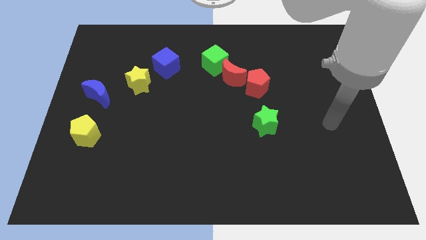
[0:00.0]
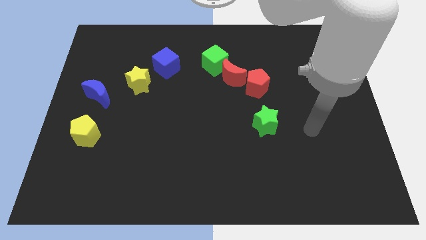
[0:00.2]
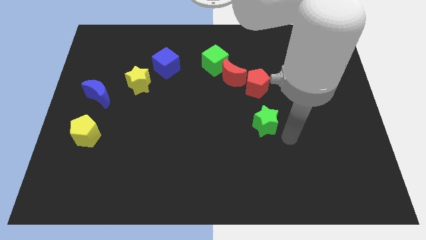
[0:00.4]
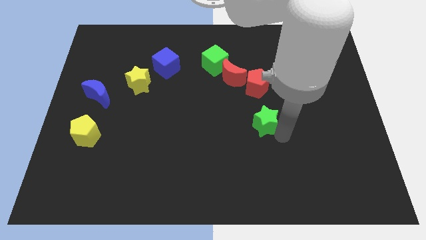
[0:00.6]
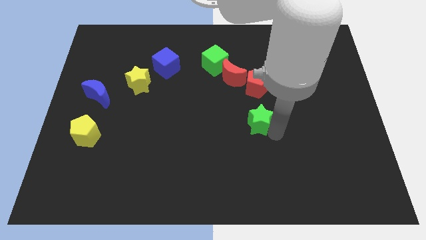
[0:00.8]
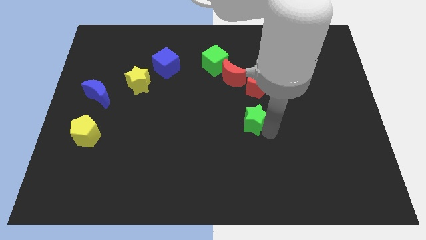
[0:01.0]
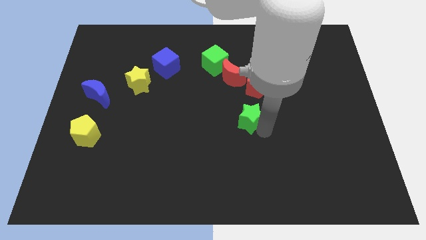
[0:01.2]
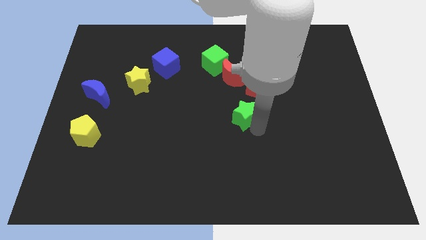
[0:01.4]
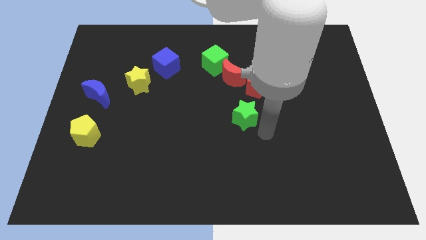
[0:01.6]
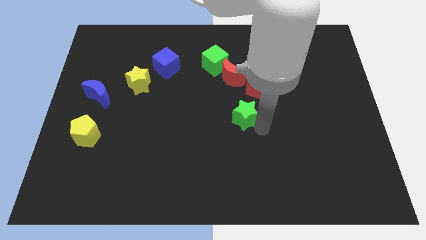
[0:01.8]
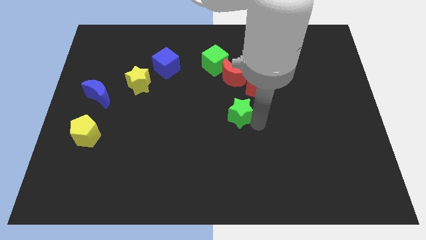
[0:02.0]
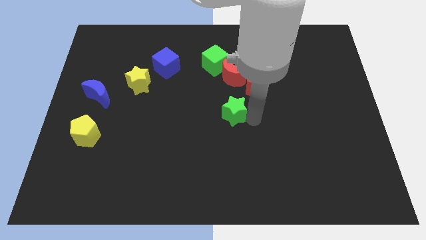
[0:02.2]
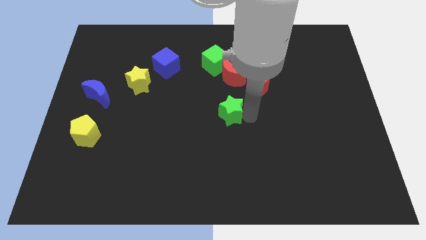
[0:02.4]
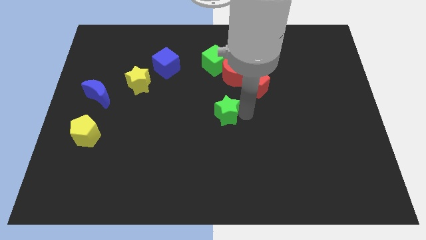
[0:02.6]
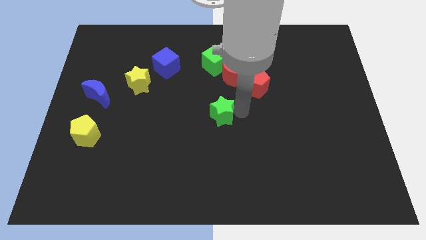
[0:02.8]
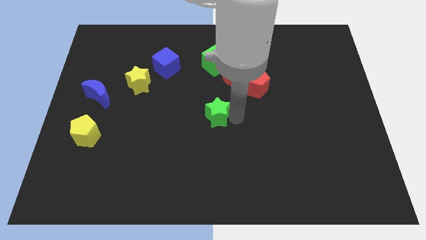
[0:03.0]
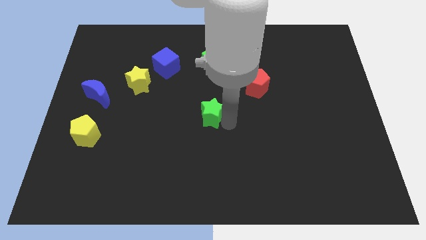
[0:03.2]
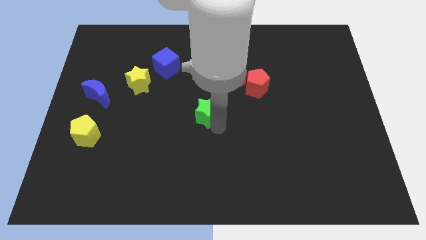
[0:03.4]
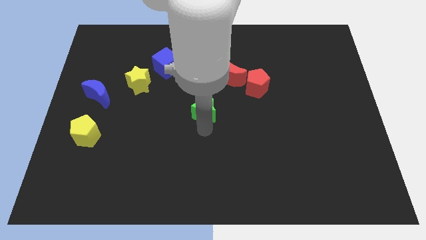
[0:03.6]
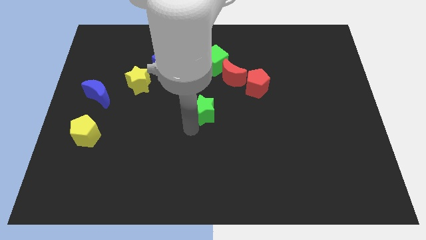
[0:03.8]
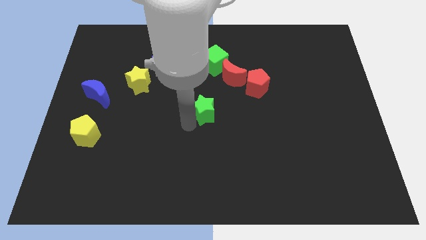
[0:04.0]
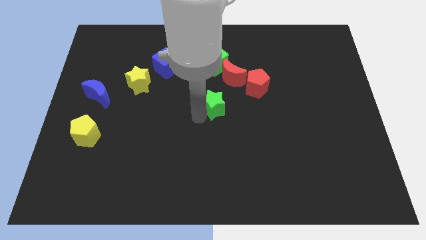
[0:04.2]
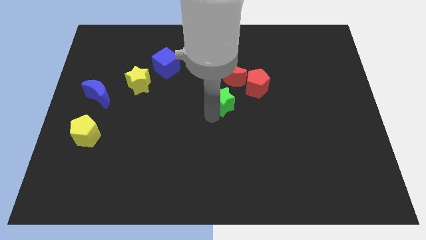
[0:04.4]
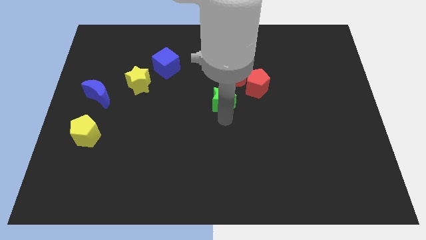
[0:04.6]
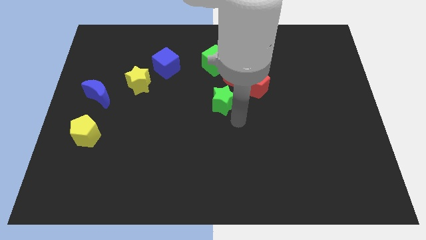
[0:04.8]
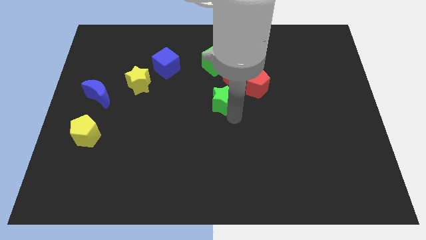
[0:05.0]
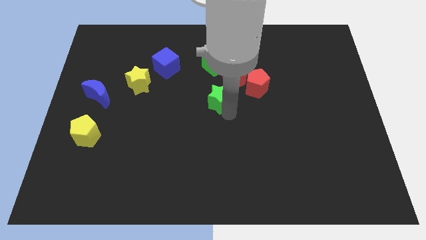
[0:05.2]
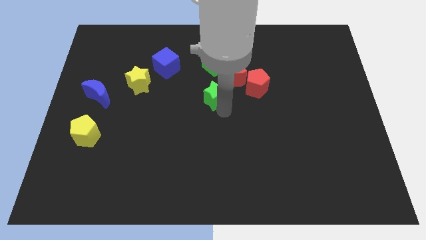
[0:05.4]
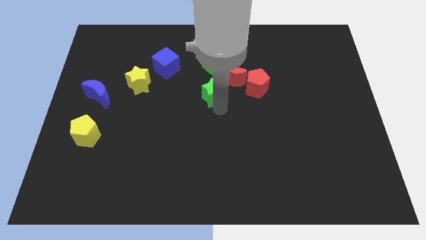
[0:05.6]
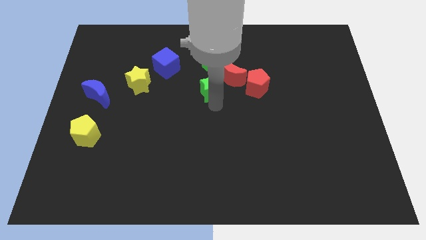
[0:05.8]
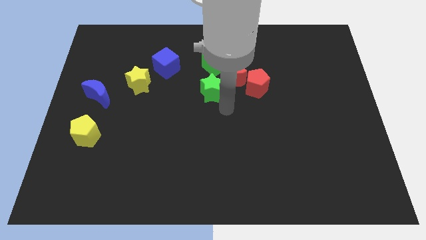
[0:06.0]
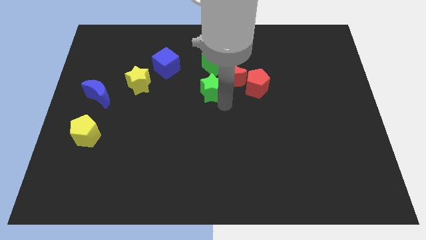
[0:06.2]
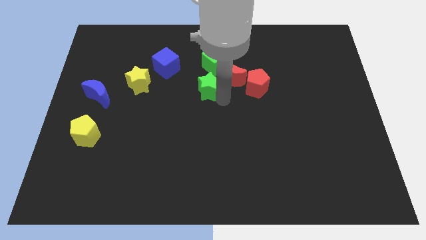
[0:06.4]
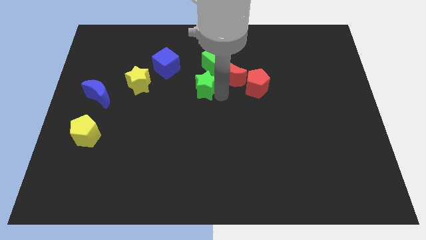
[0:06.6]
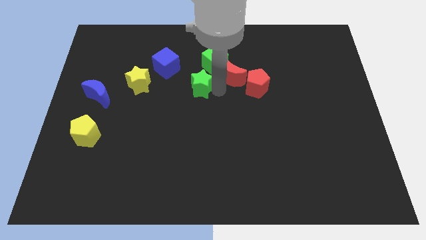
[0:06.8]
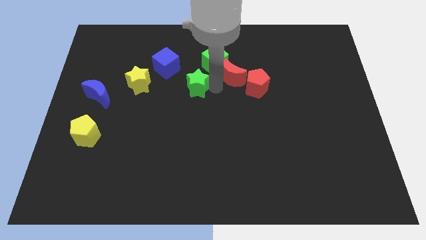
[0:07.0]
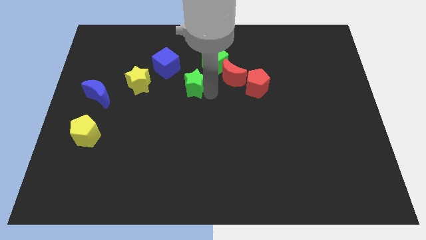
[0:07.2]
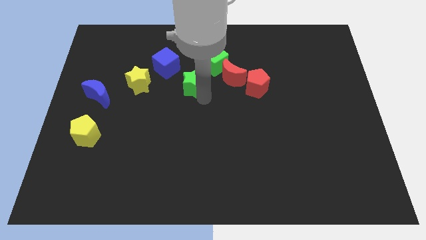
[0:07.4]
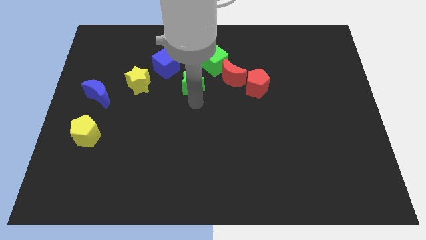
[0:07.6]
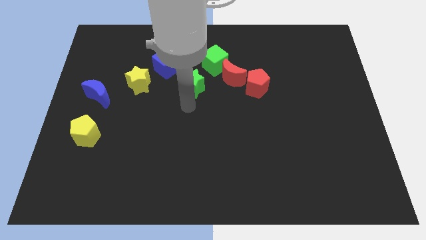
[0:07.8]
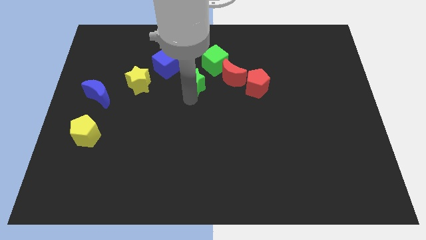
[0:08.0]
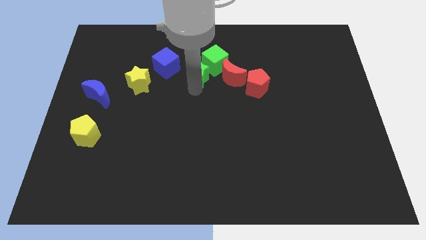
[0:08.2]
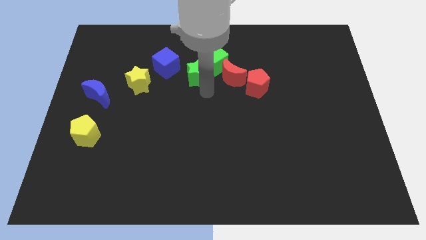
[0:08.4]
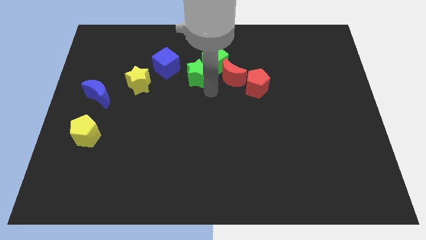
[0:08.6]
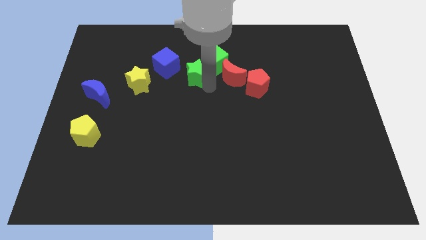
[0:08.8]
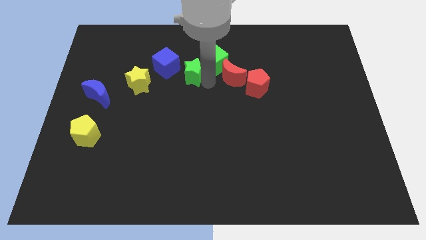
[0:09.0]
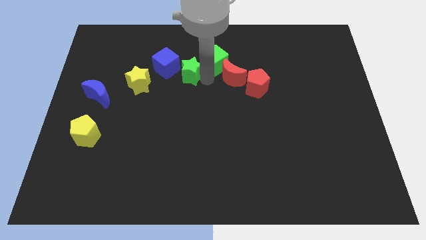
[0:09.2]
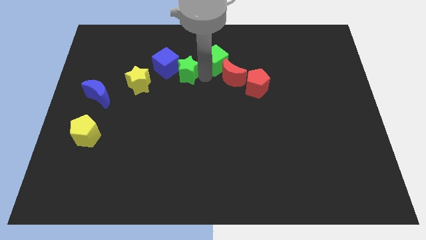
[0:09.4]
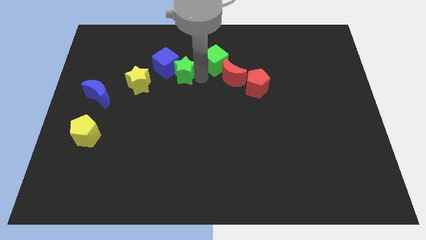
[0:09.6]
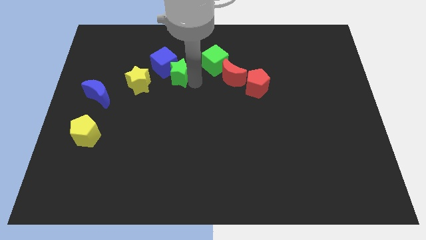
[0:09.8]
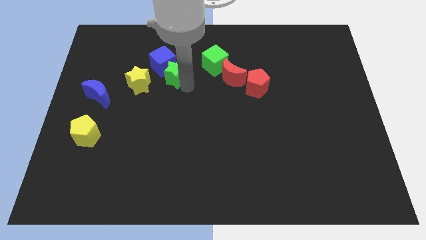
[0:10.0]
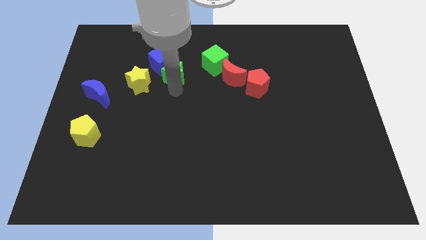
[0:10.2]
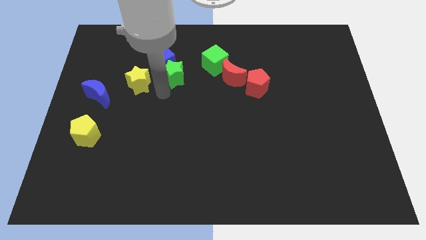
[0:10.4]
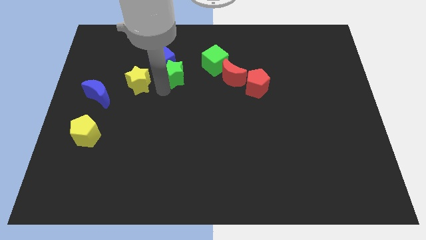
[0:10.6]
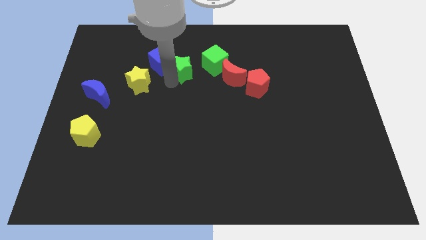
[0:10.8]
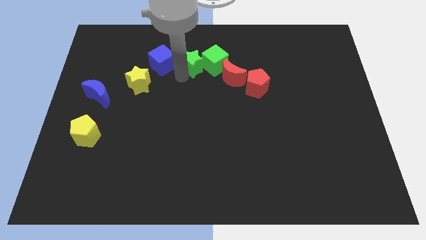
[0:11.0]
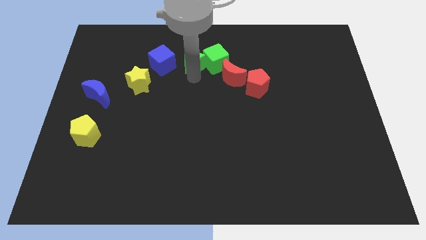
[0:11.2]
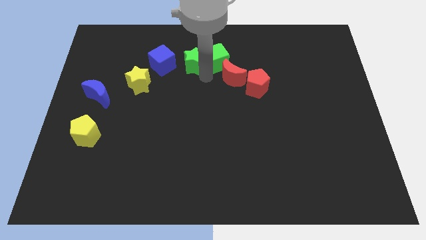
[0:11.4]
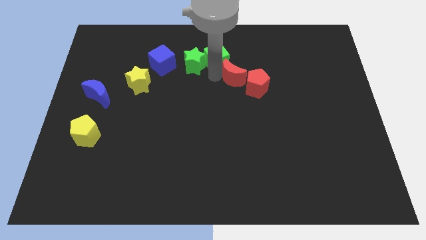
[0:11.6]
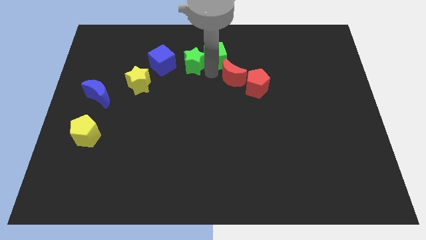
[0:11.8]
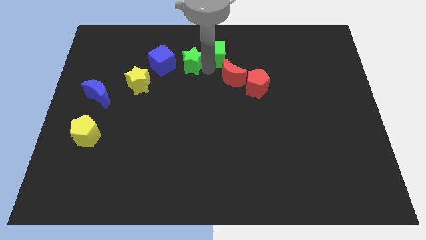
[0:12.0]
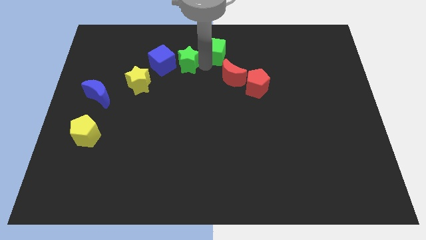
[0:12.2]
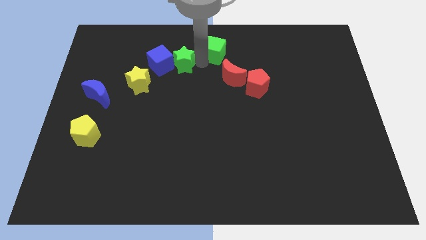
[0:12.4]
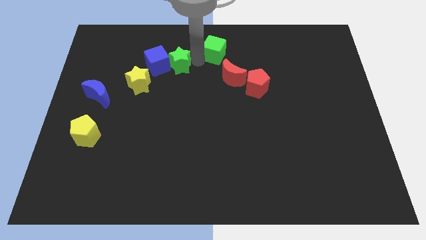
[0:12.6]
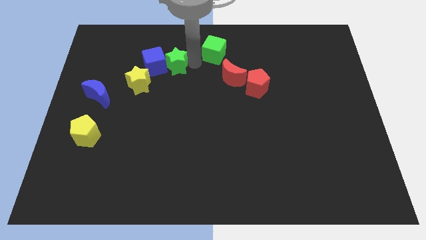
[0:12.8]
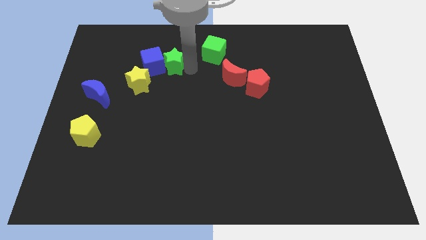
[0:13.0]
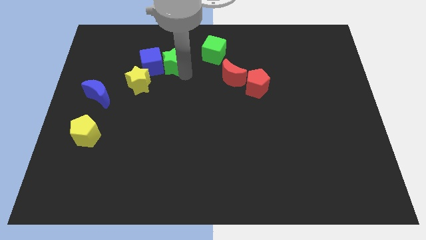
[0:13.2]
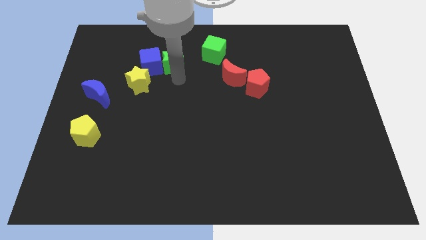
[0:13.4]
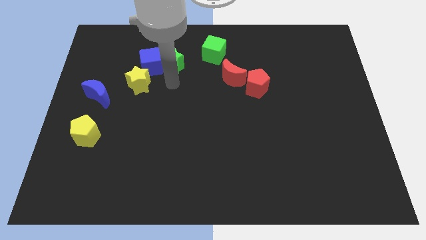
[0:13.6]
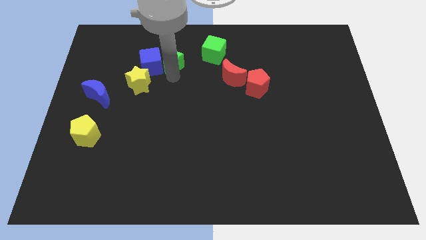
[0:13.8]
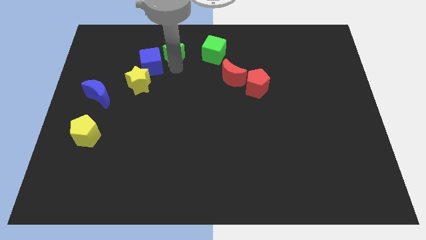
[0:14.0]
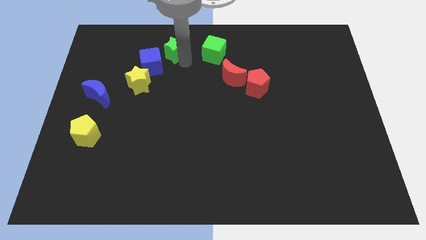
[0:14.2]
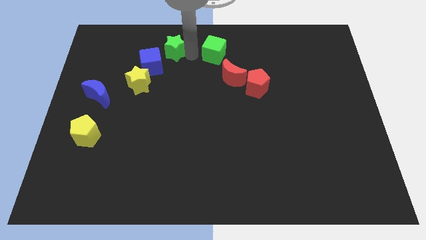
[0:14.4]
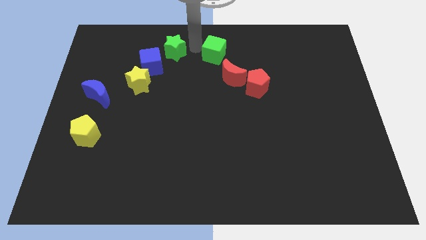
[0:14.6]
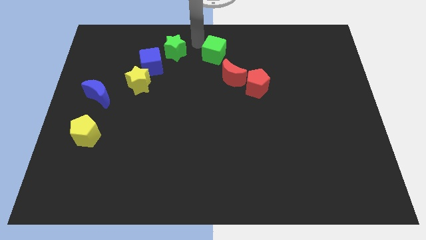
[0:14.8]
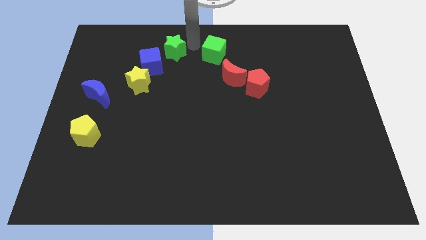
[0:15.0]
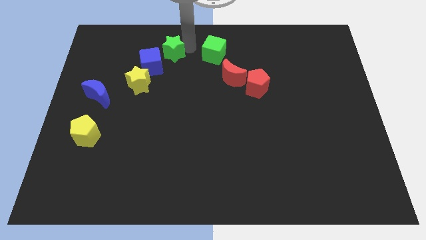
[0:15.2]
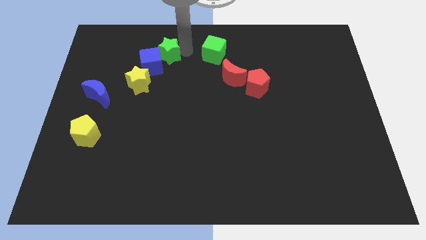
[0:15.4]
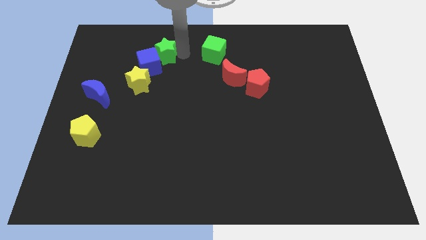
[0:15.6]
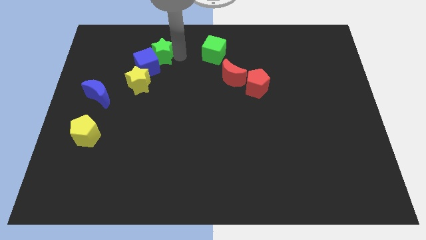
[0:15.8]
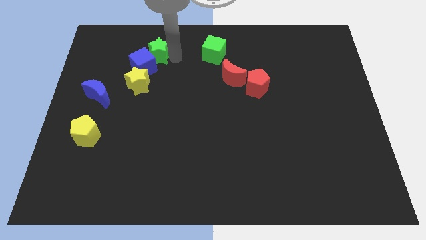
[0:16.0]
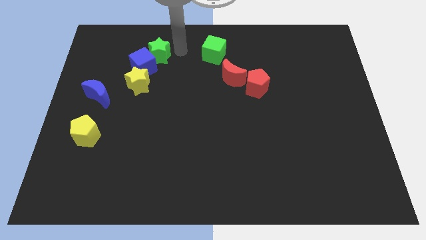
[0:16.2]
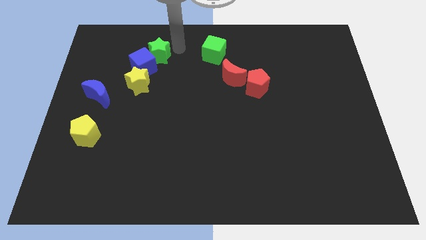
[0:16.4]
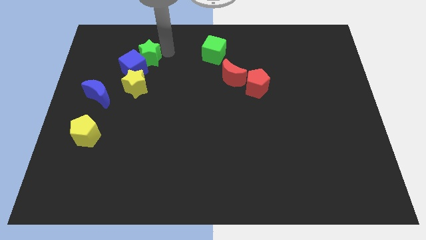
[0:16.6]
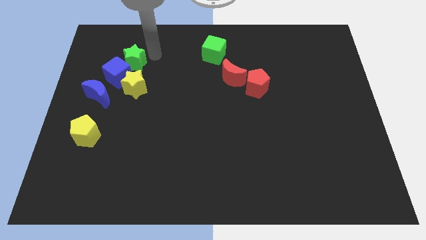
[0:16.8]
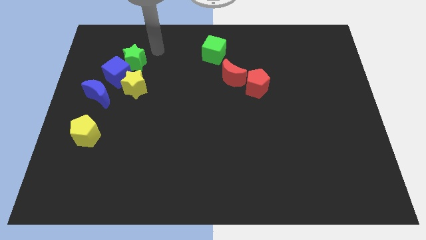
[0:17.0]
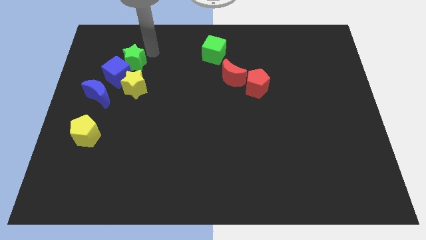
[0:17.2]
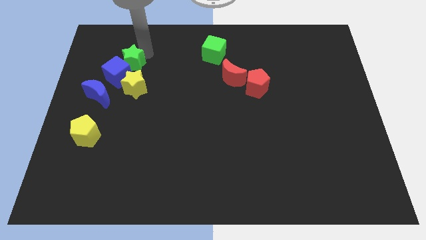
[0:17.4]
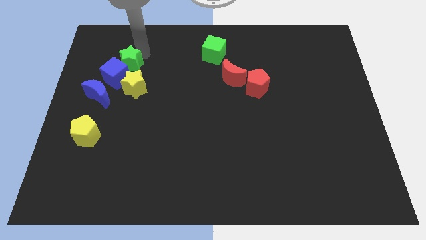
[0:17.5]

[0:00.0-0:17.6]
push the green star to the top left side of the yellow star
